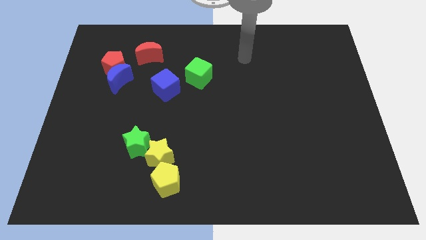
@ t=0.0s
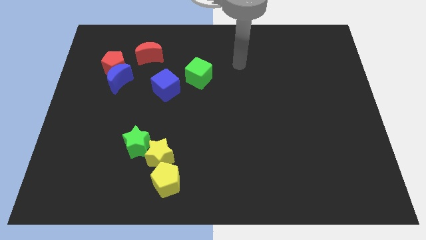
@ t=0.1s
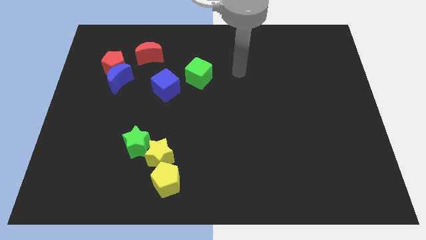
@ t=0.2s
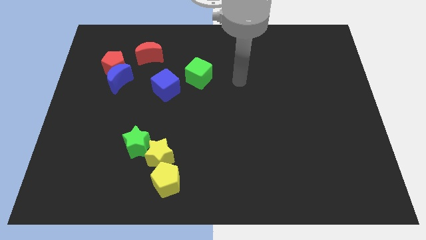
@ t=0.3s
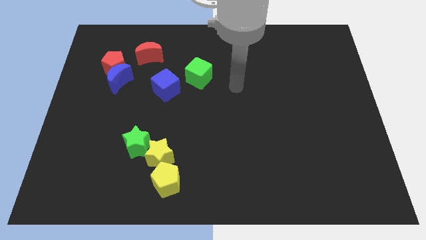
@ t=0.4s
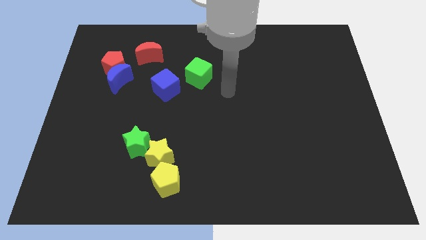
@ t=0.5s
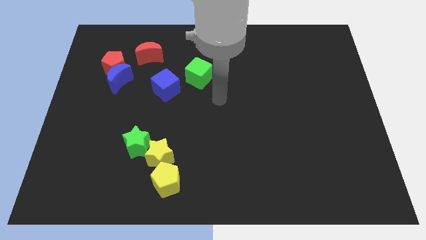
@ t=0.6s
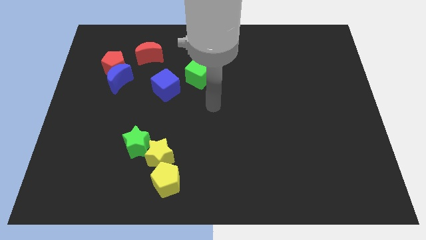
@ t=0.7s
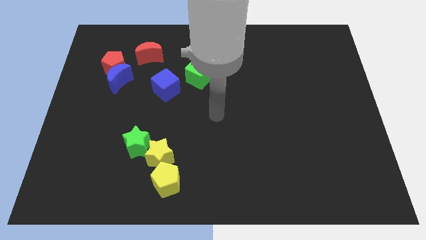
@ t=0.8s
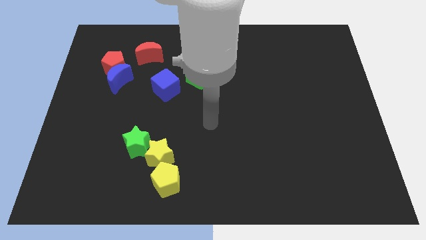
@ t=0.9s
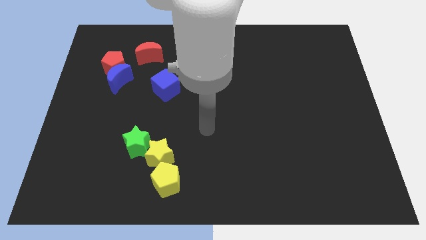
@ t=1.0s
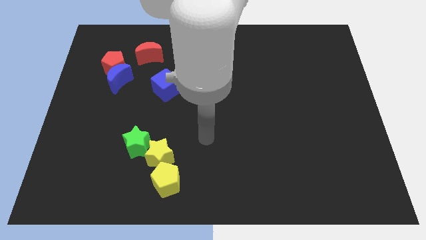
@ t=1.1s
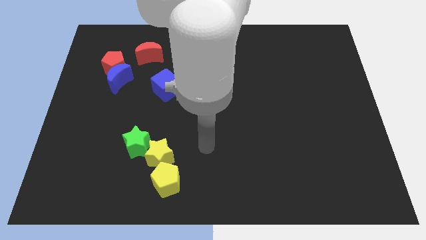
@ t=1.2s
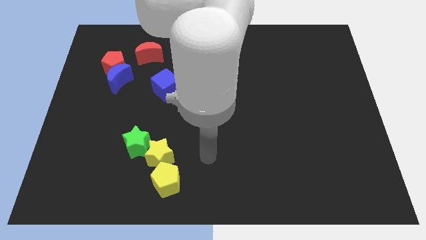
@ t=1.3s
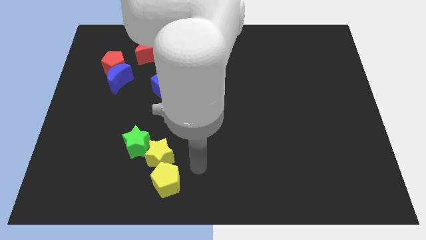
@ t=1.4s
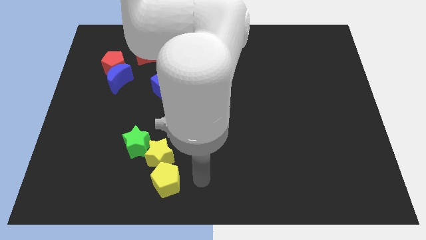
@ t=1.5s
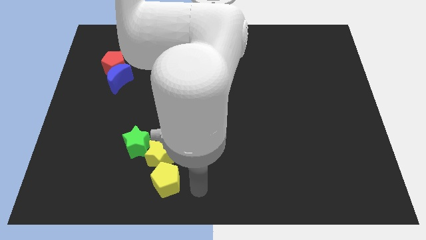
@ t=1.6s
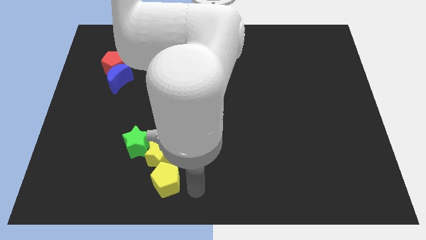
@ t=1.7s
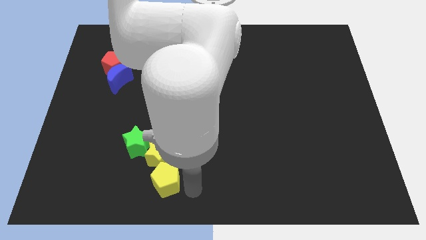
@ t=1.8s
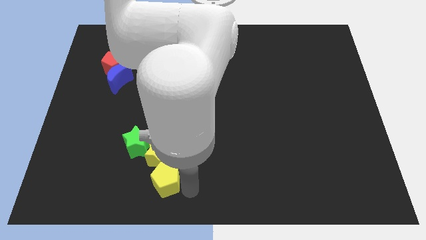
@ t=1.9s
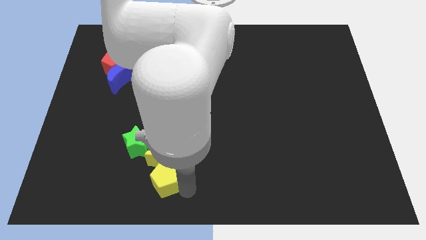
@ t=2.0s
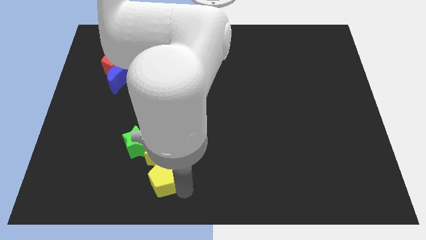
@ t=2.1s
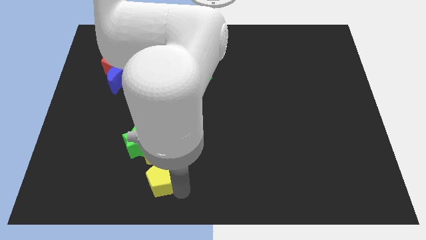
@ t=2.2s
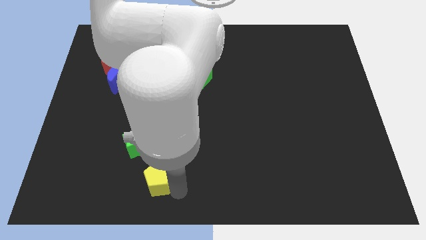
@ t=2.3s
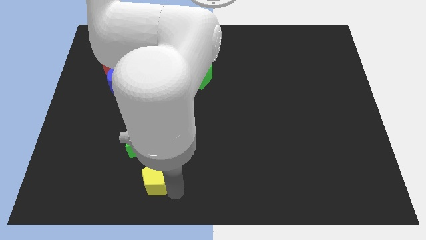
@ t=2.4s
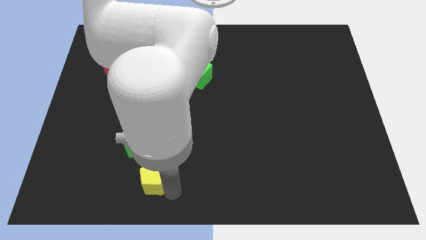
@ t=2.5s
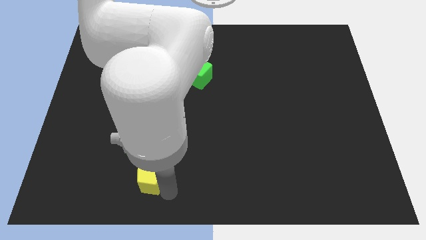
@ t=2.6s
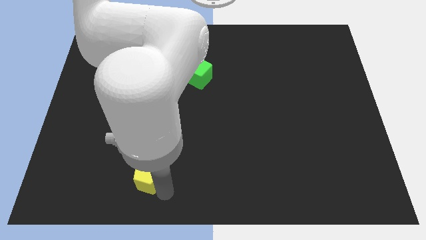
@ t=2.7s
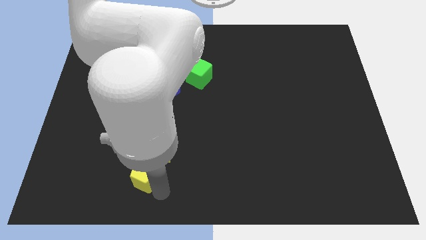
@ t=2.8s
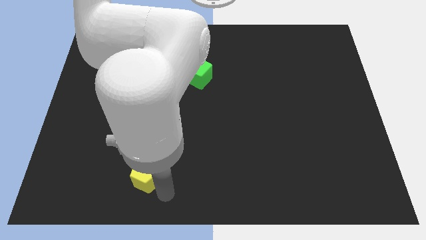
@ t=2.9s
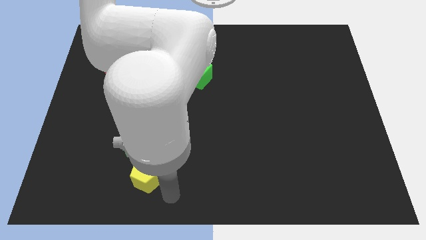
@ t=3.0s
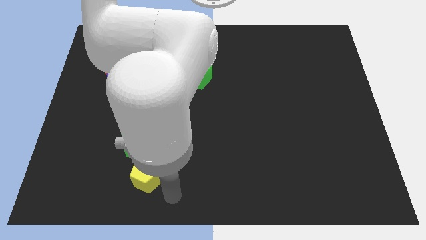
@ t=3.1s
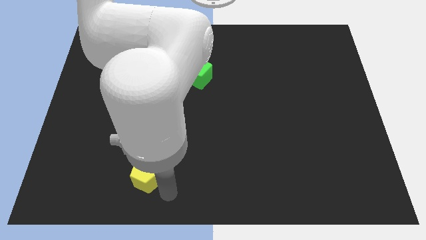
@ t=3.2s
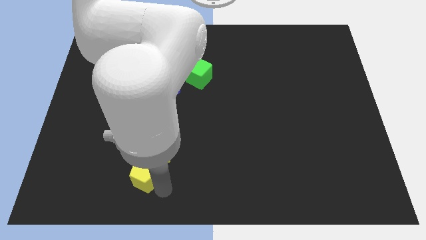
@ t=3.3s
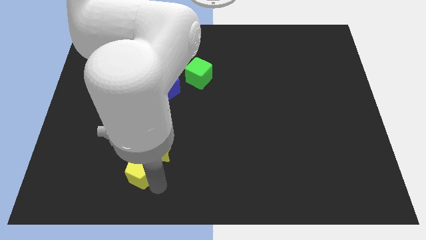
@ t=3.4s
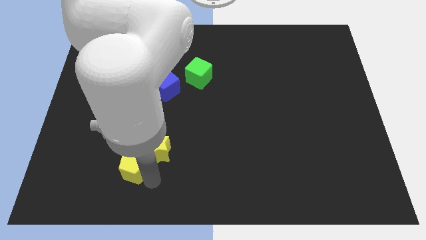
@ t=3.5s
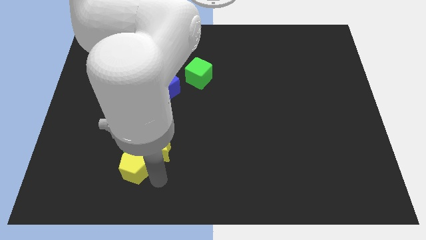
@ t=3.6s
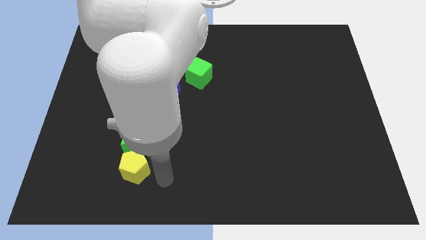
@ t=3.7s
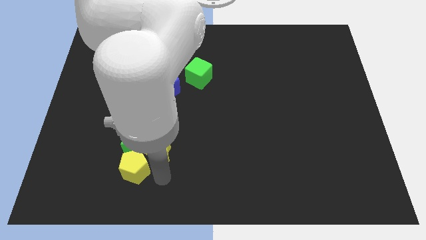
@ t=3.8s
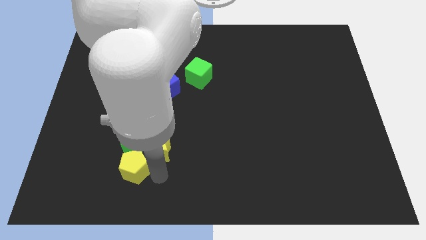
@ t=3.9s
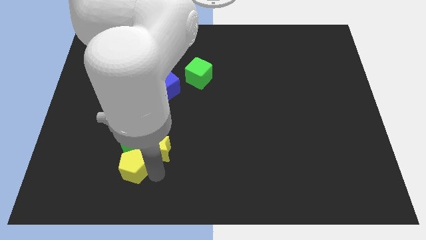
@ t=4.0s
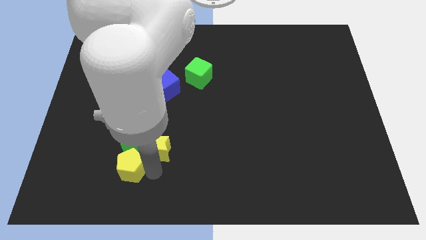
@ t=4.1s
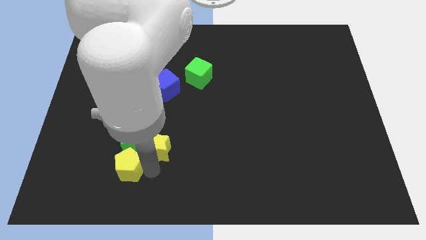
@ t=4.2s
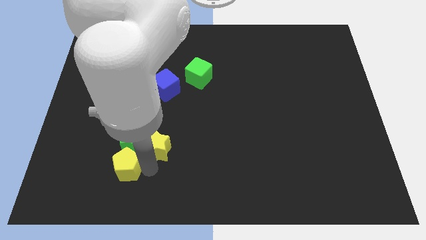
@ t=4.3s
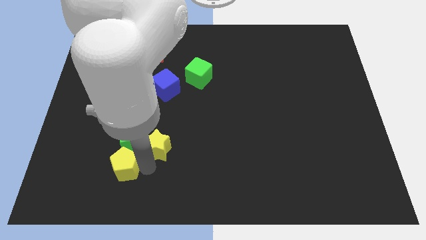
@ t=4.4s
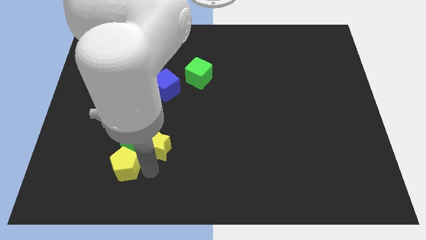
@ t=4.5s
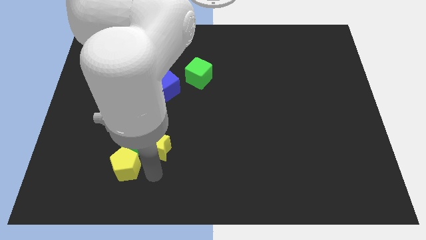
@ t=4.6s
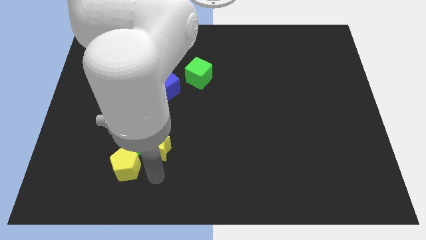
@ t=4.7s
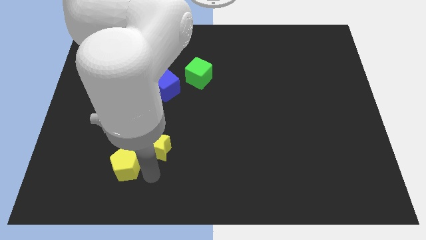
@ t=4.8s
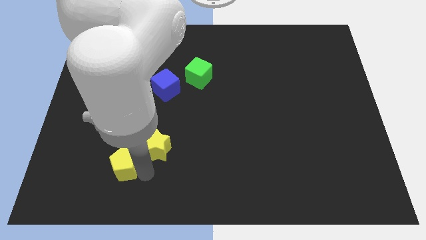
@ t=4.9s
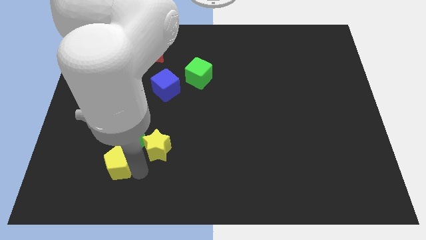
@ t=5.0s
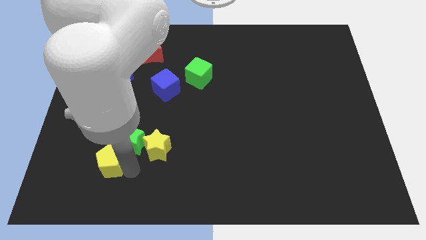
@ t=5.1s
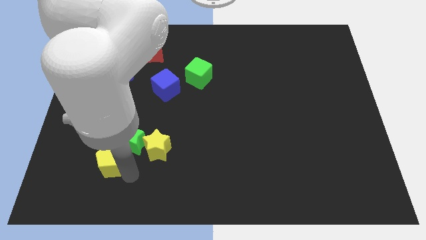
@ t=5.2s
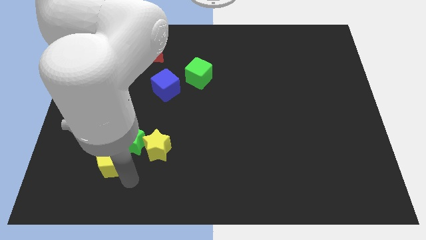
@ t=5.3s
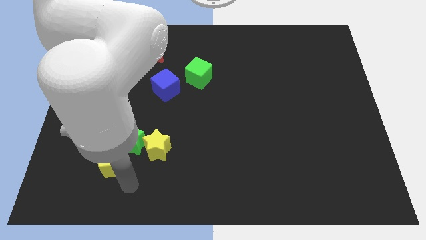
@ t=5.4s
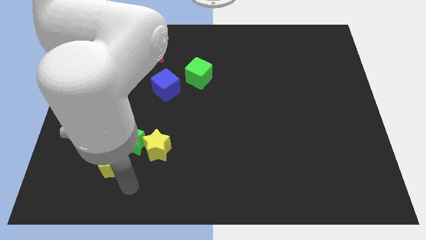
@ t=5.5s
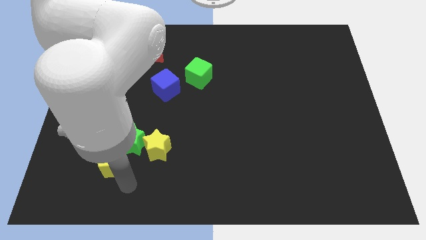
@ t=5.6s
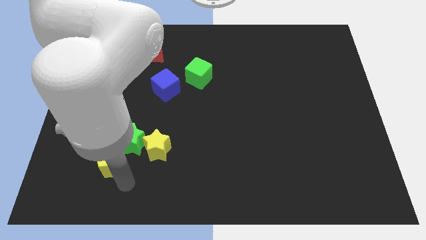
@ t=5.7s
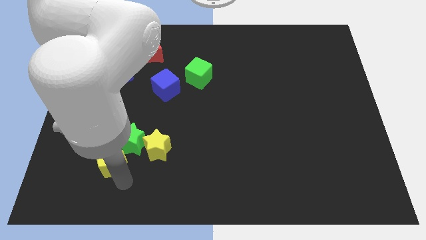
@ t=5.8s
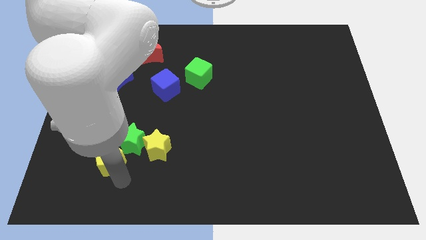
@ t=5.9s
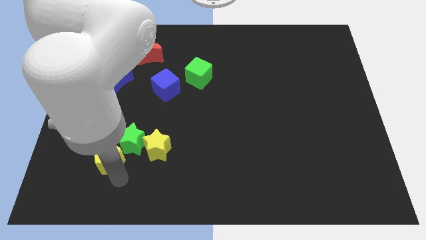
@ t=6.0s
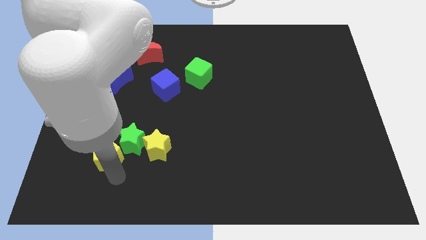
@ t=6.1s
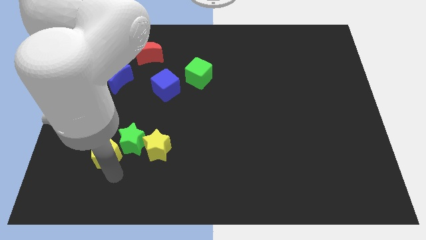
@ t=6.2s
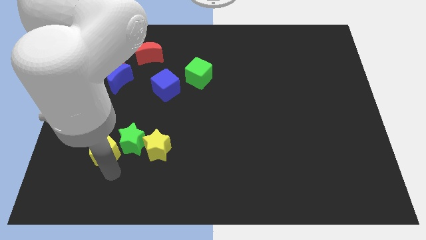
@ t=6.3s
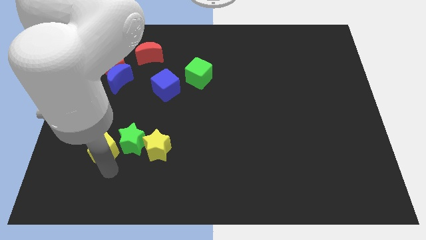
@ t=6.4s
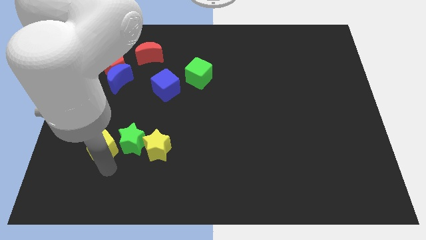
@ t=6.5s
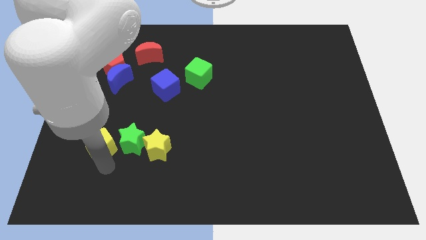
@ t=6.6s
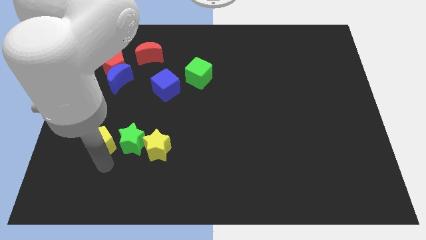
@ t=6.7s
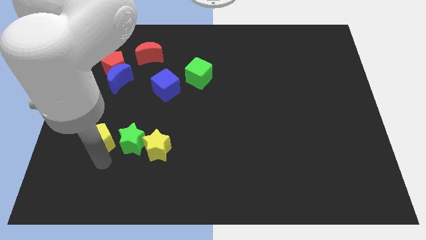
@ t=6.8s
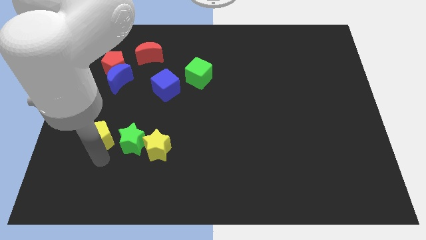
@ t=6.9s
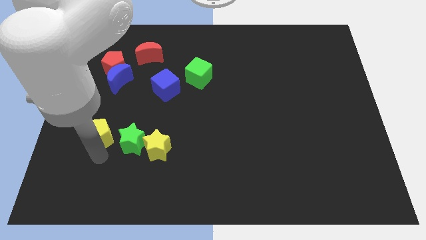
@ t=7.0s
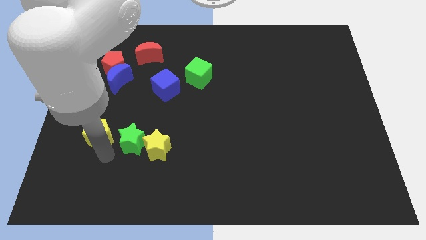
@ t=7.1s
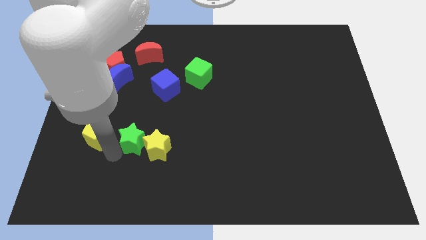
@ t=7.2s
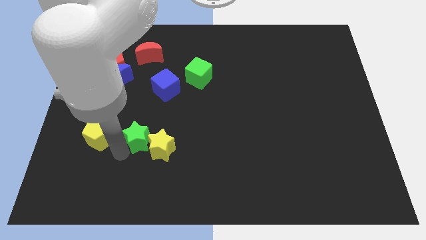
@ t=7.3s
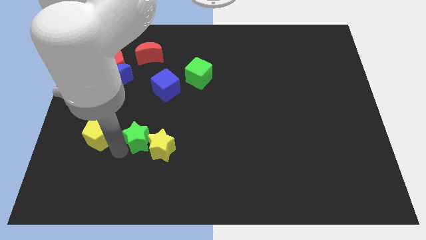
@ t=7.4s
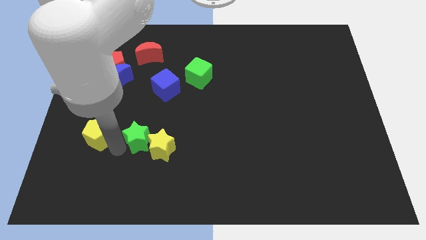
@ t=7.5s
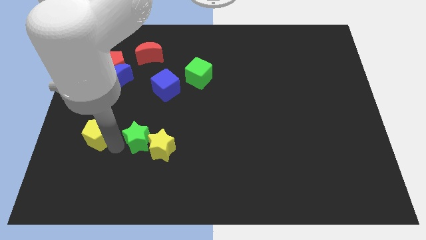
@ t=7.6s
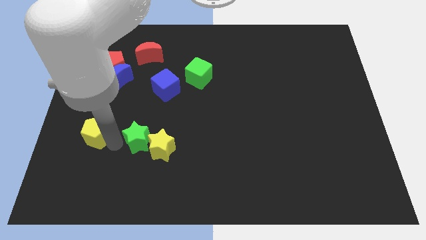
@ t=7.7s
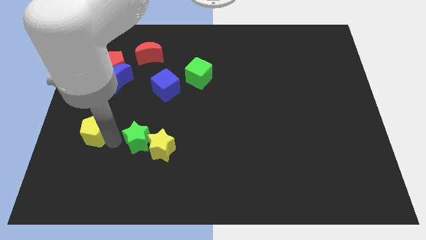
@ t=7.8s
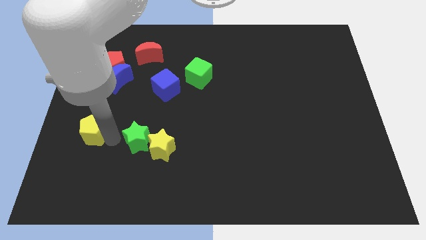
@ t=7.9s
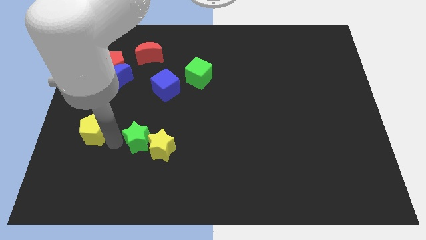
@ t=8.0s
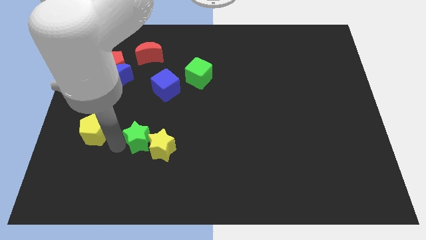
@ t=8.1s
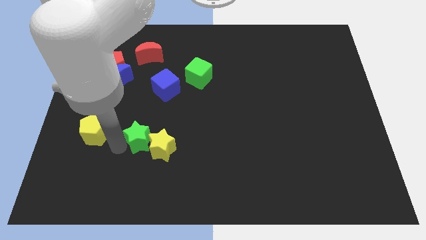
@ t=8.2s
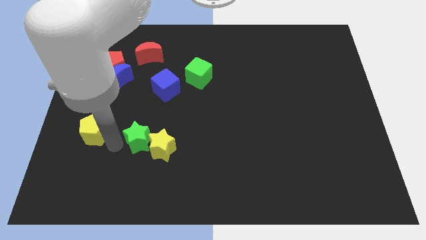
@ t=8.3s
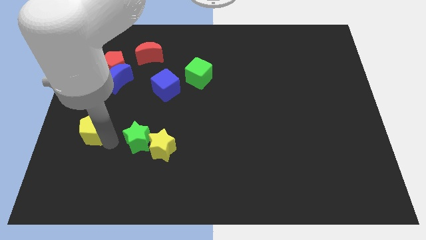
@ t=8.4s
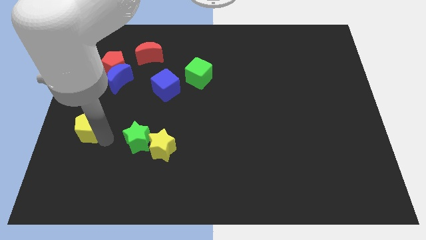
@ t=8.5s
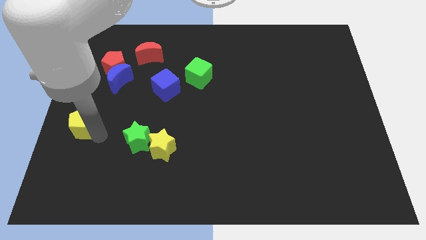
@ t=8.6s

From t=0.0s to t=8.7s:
put the yellow pentagon to the left side
